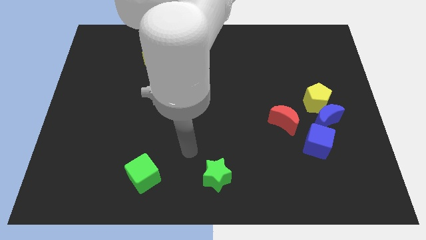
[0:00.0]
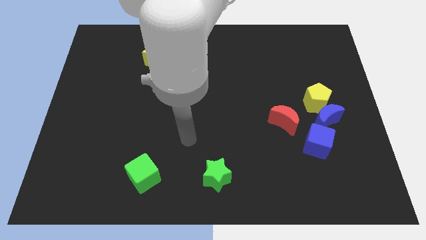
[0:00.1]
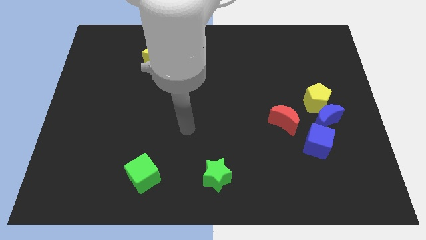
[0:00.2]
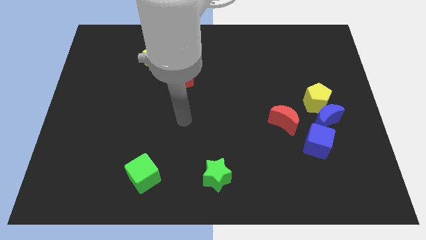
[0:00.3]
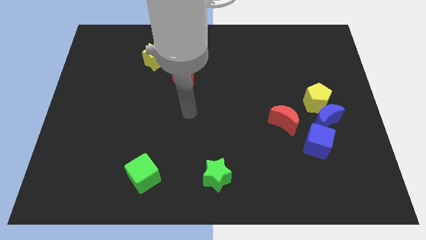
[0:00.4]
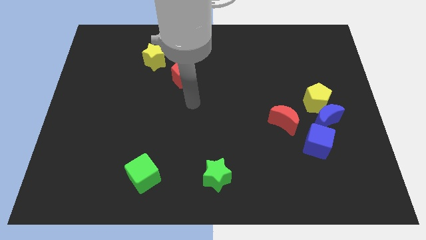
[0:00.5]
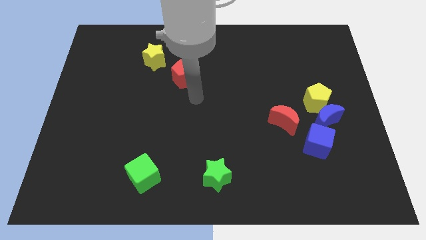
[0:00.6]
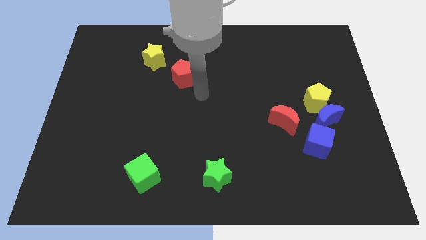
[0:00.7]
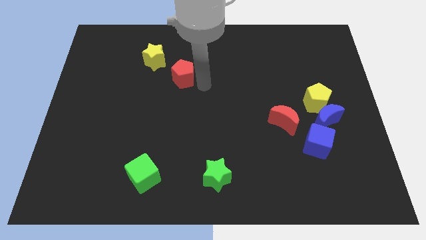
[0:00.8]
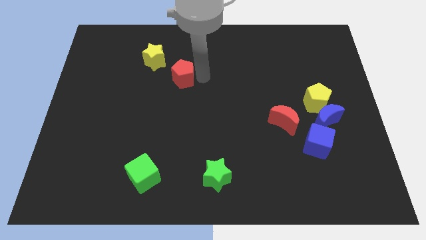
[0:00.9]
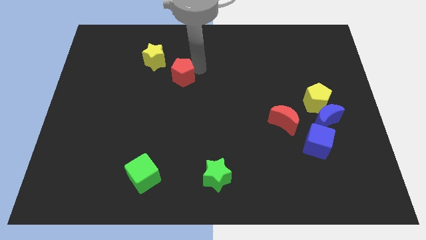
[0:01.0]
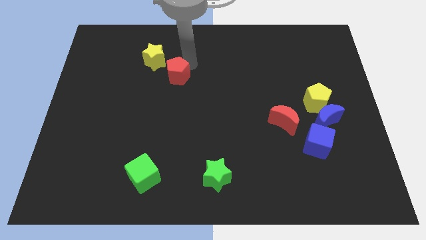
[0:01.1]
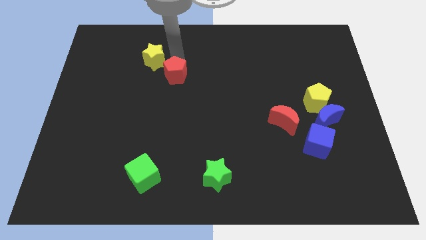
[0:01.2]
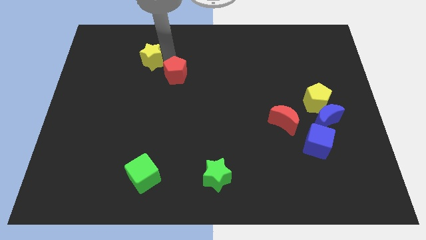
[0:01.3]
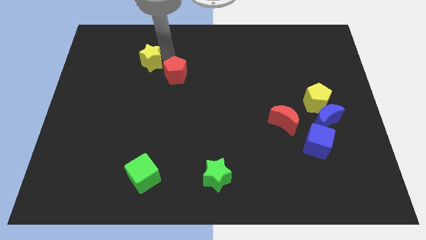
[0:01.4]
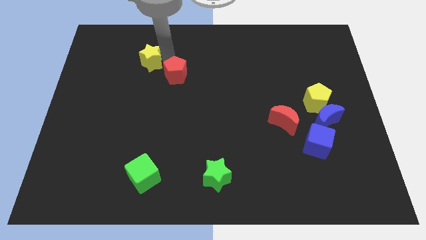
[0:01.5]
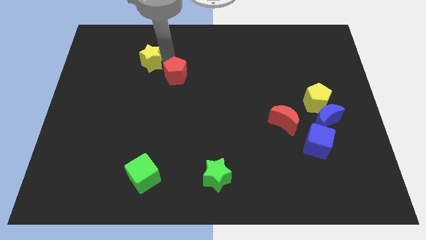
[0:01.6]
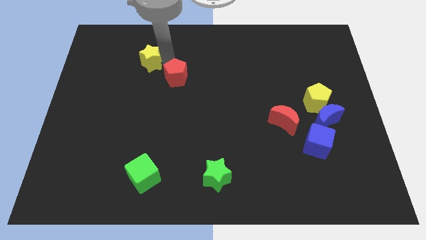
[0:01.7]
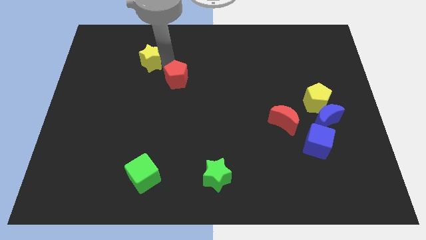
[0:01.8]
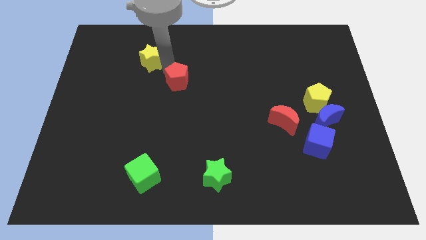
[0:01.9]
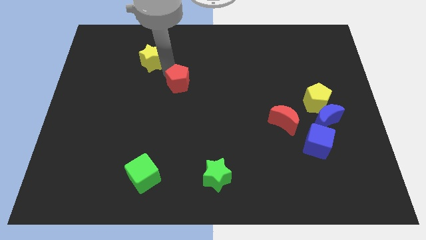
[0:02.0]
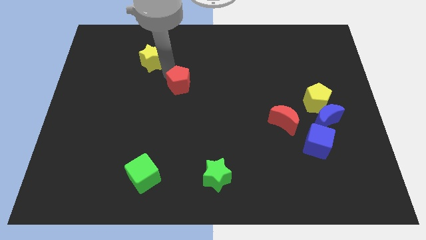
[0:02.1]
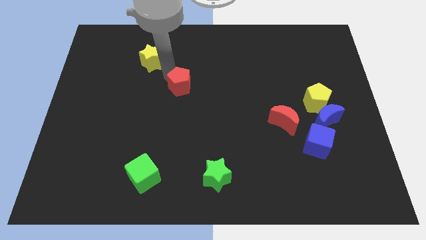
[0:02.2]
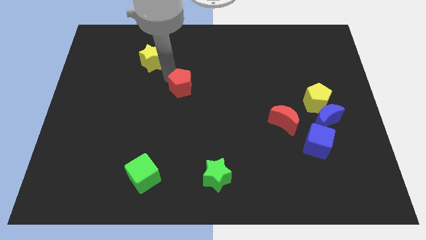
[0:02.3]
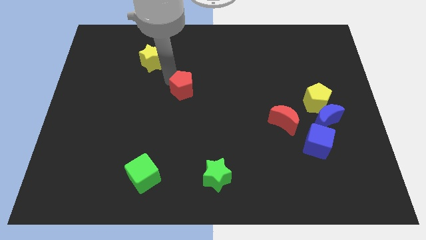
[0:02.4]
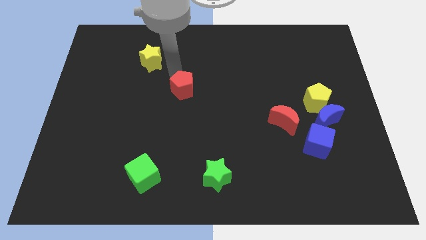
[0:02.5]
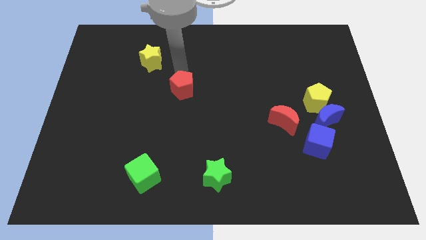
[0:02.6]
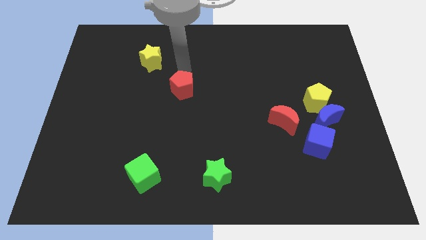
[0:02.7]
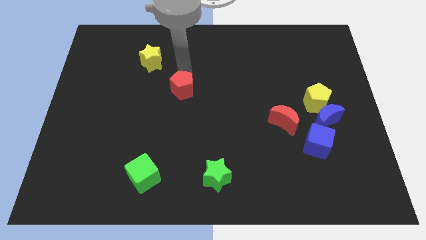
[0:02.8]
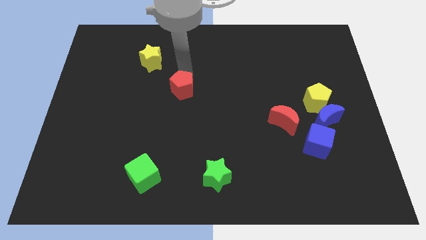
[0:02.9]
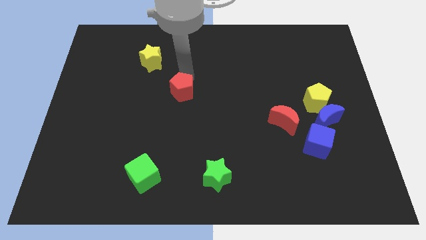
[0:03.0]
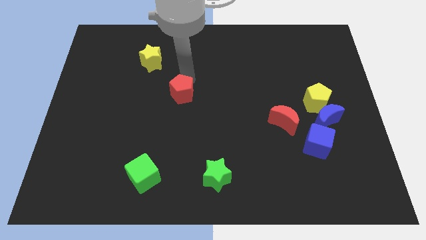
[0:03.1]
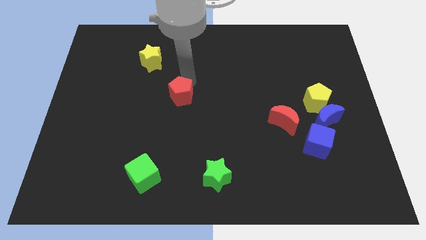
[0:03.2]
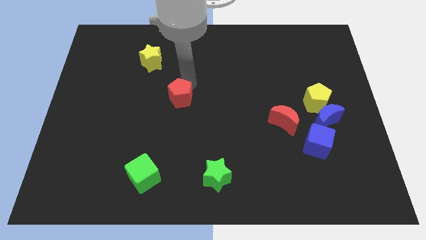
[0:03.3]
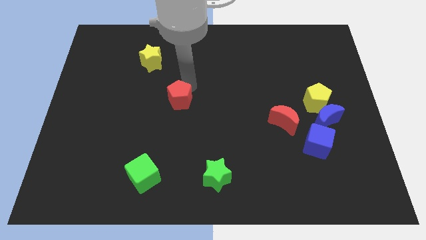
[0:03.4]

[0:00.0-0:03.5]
move the red pentagon slightly down

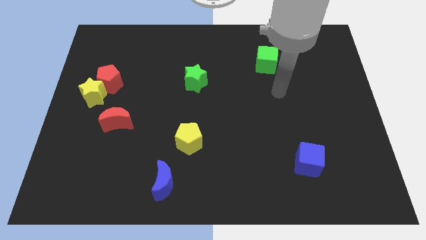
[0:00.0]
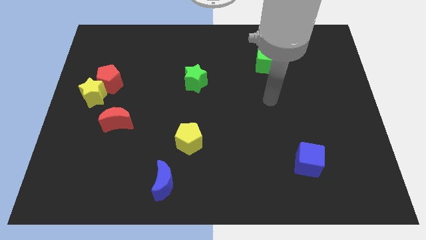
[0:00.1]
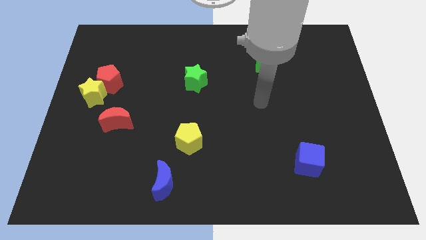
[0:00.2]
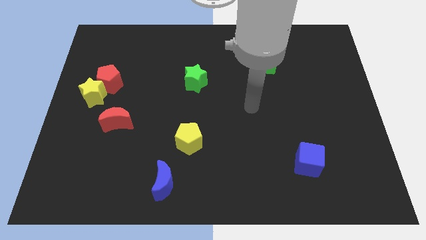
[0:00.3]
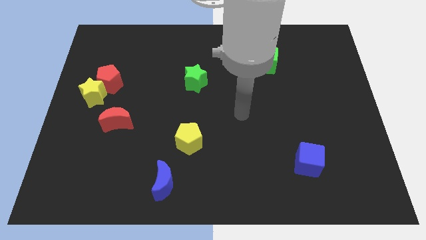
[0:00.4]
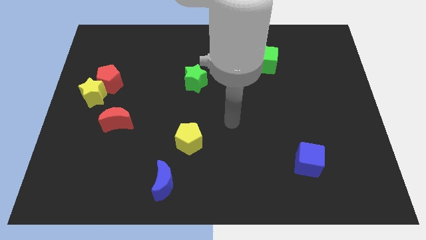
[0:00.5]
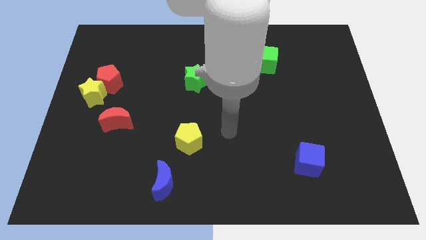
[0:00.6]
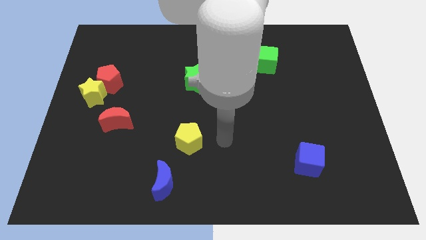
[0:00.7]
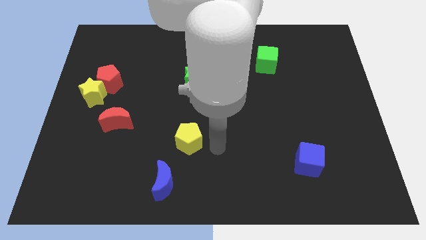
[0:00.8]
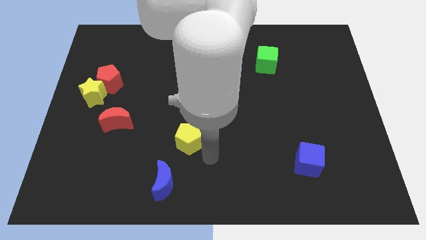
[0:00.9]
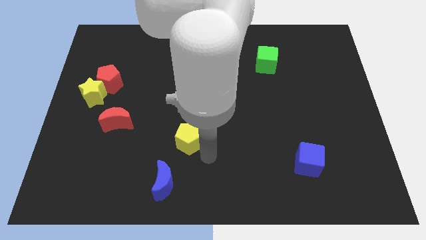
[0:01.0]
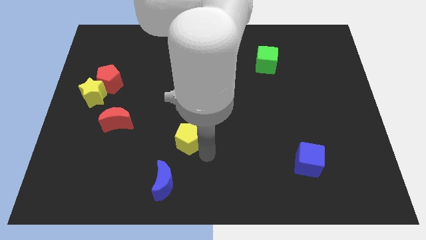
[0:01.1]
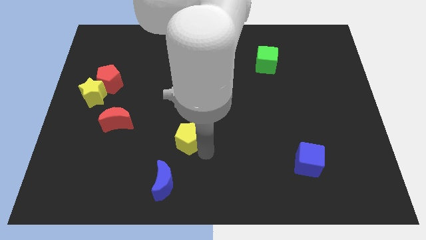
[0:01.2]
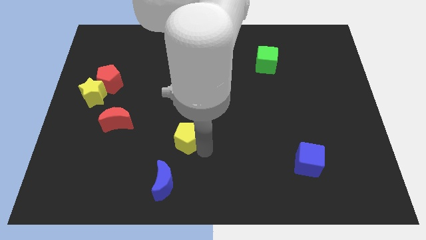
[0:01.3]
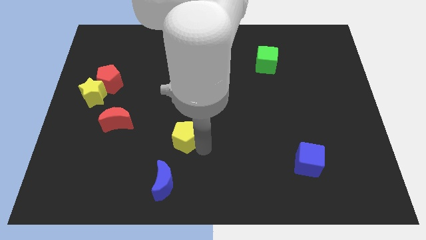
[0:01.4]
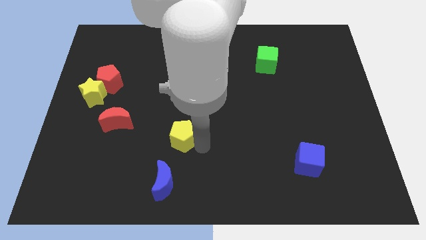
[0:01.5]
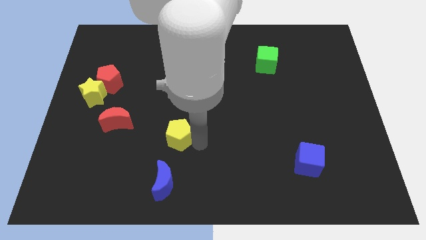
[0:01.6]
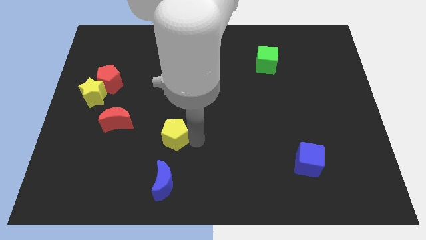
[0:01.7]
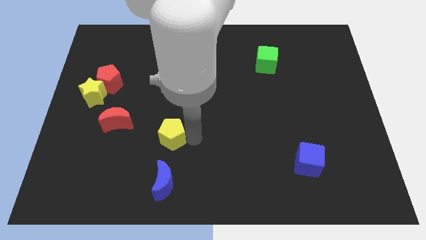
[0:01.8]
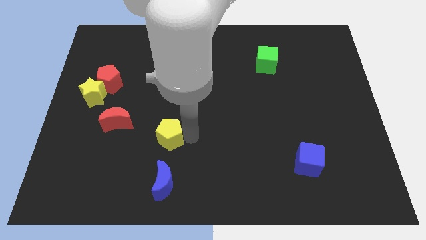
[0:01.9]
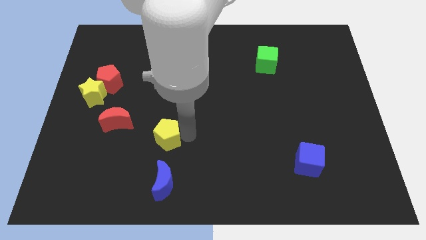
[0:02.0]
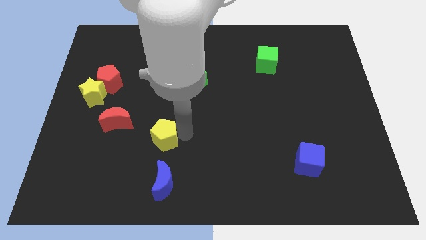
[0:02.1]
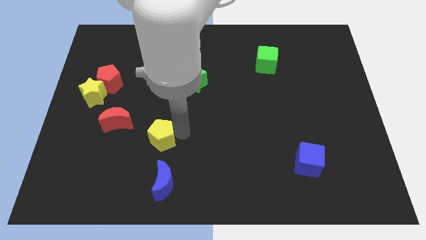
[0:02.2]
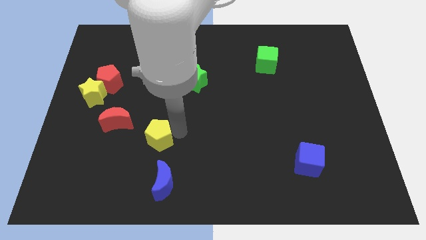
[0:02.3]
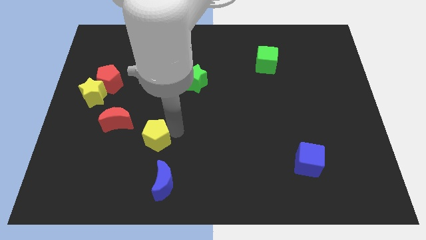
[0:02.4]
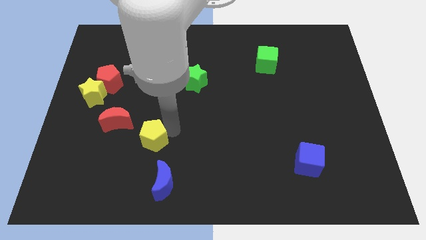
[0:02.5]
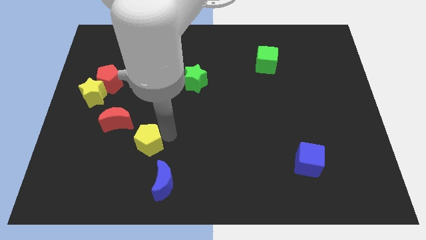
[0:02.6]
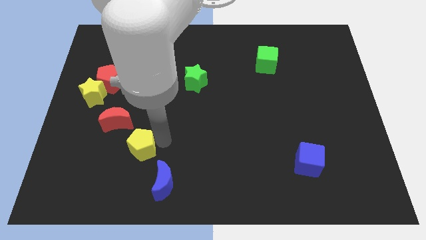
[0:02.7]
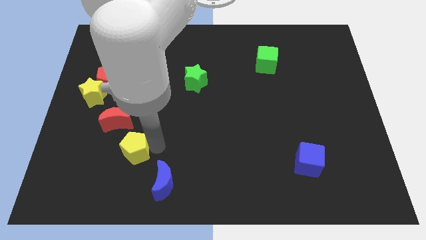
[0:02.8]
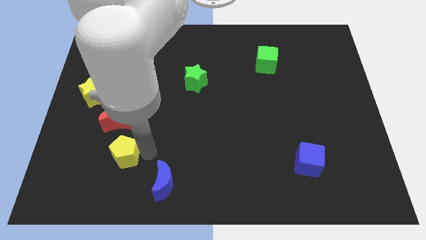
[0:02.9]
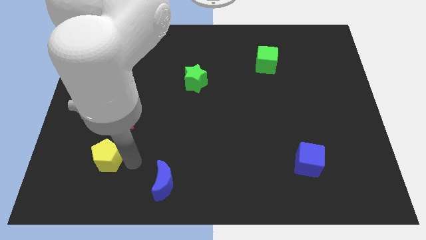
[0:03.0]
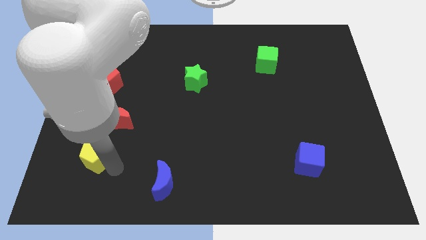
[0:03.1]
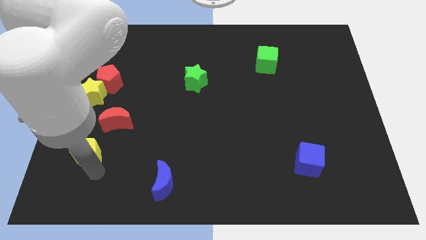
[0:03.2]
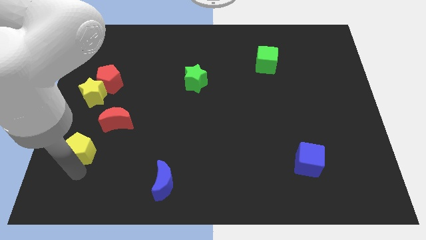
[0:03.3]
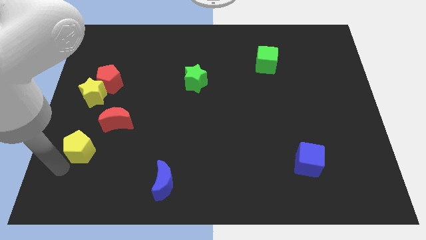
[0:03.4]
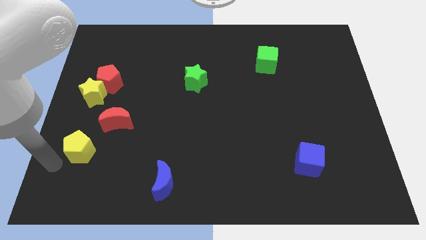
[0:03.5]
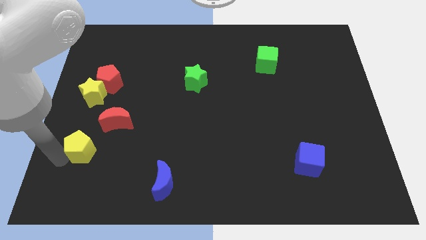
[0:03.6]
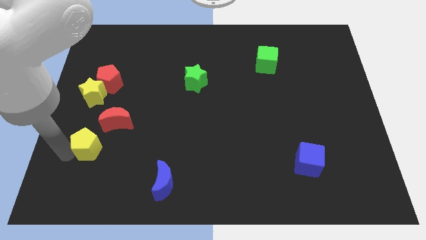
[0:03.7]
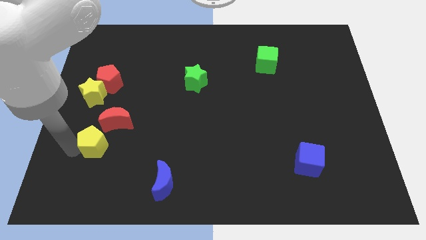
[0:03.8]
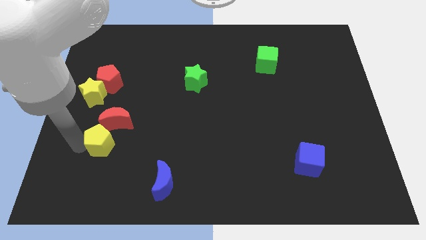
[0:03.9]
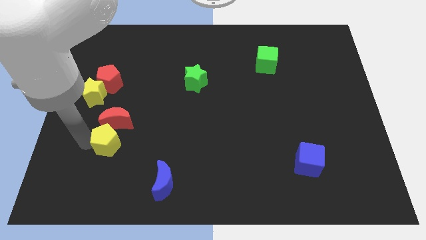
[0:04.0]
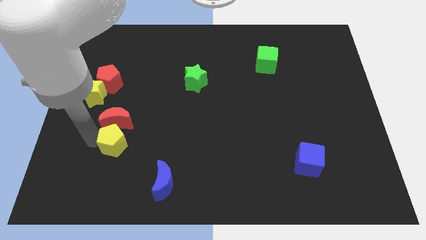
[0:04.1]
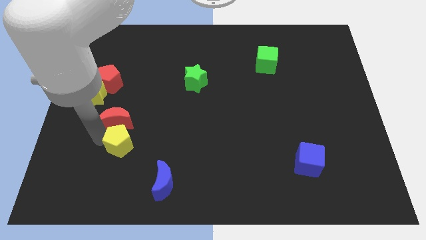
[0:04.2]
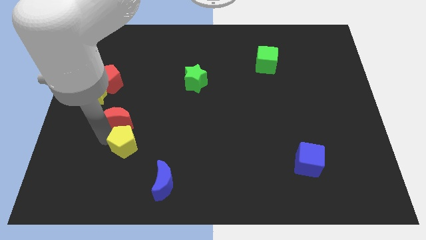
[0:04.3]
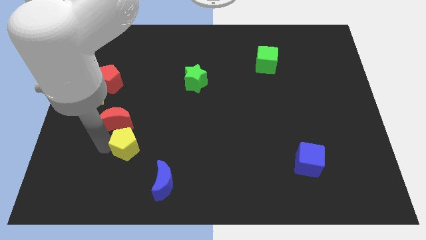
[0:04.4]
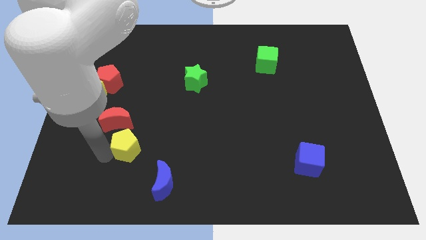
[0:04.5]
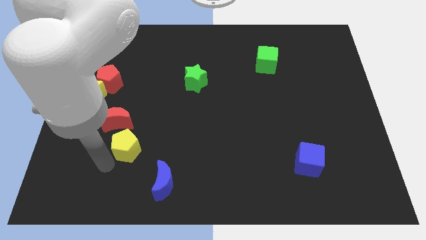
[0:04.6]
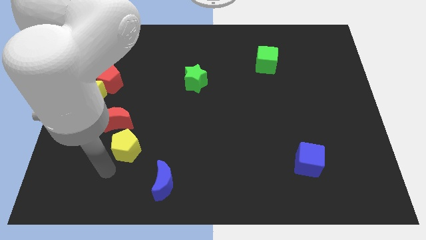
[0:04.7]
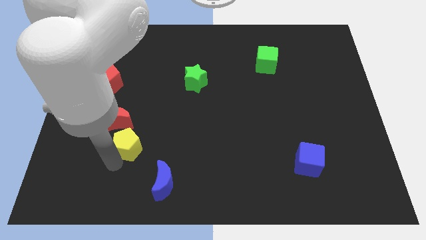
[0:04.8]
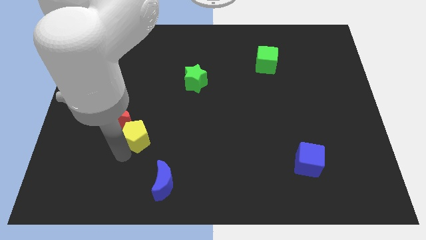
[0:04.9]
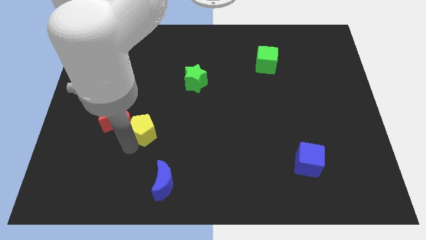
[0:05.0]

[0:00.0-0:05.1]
move the yellow pentagon a bit diagonally upwards and left
